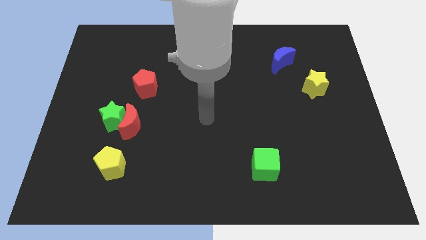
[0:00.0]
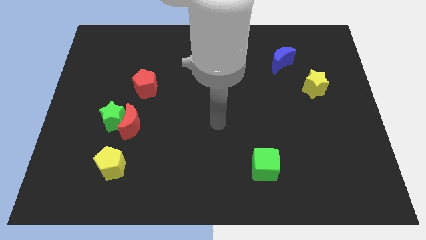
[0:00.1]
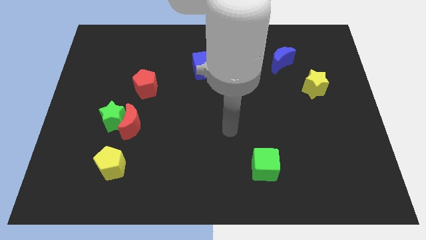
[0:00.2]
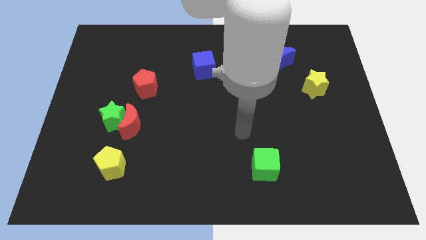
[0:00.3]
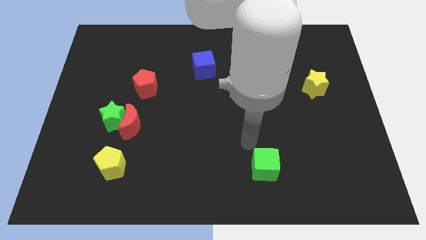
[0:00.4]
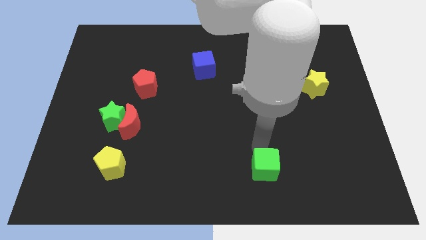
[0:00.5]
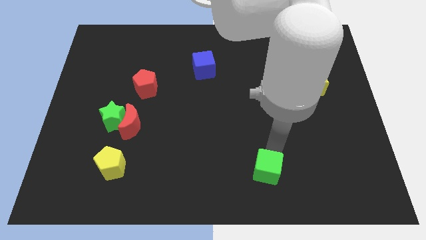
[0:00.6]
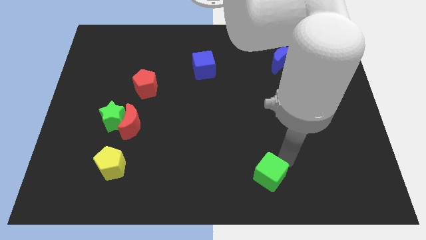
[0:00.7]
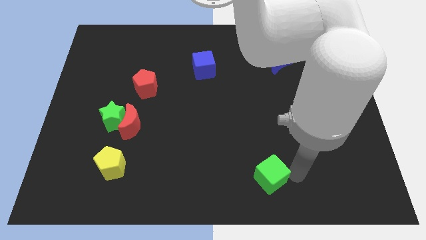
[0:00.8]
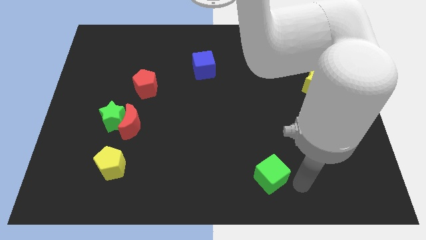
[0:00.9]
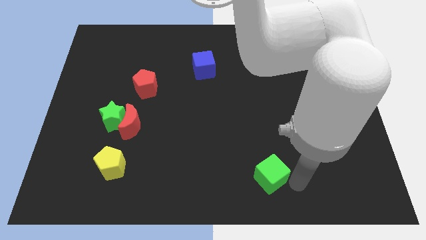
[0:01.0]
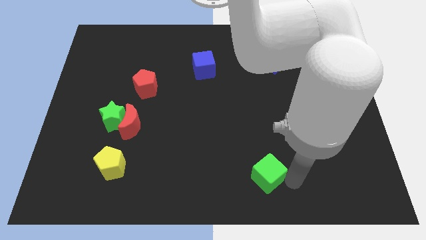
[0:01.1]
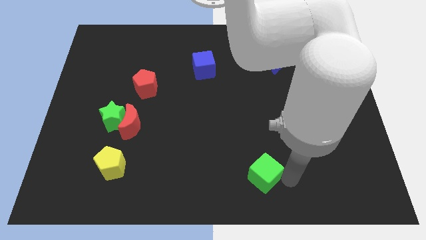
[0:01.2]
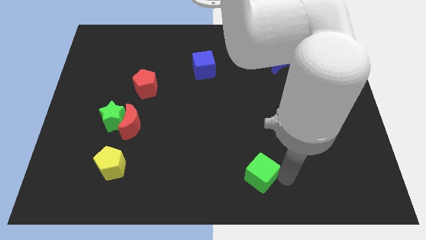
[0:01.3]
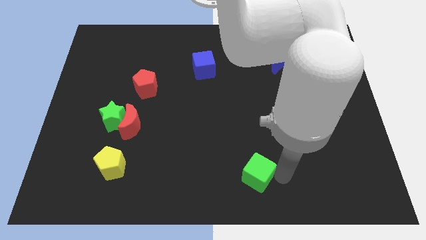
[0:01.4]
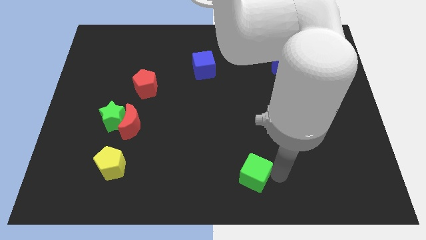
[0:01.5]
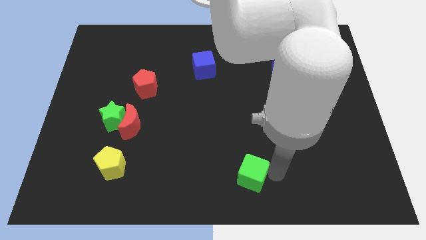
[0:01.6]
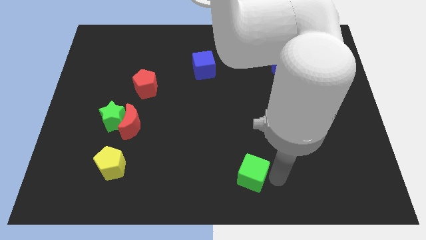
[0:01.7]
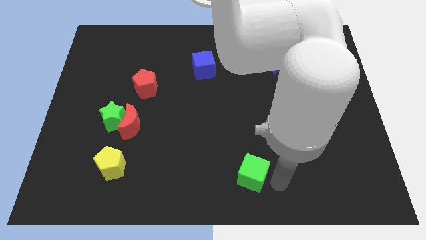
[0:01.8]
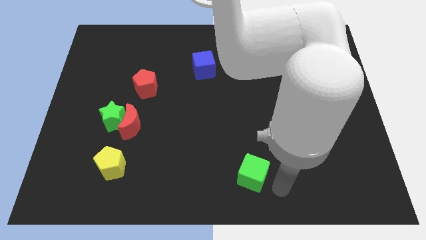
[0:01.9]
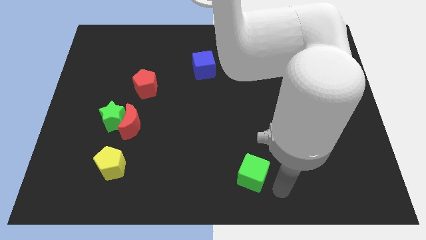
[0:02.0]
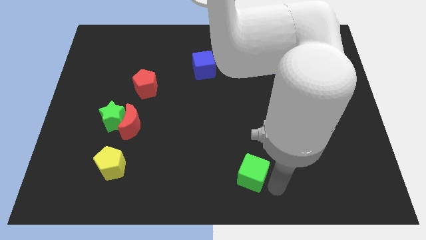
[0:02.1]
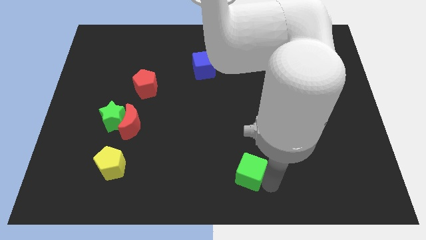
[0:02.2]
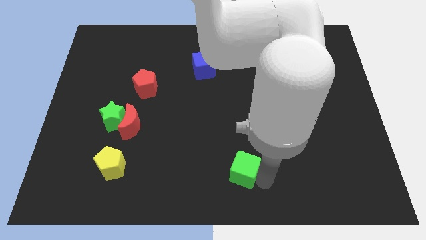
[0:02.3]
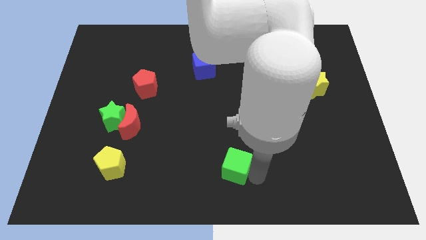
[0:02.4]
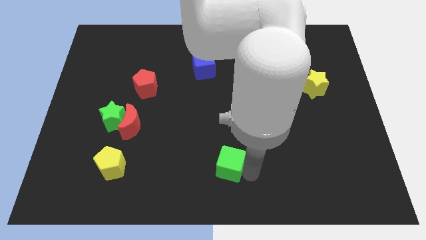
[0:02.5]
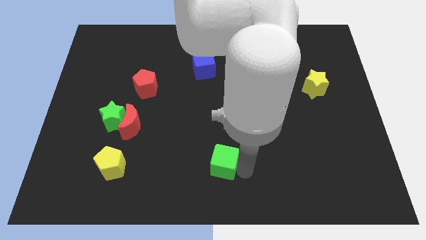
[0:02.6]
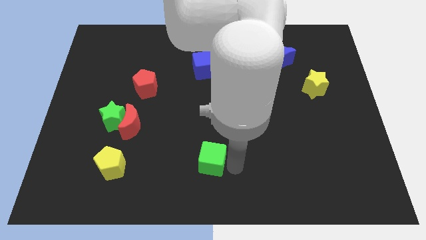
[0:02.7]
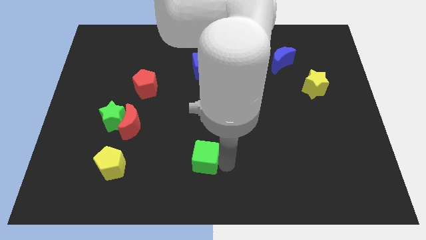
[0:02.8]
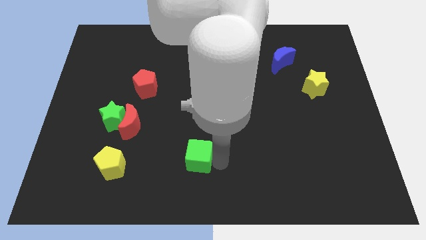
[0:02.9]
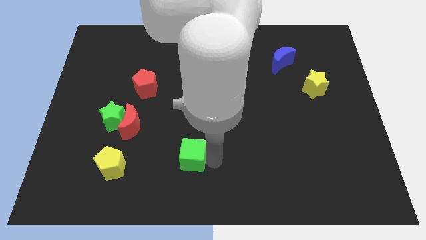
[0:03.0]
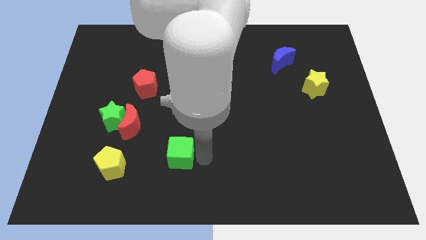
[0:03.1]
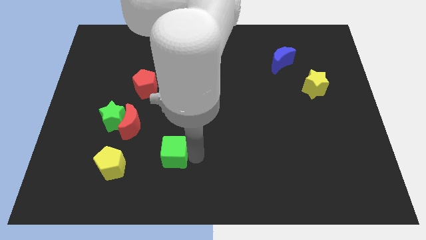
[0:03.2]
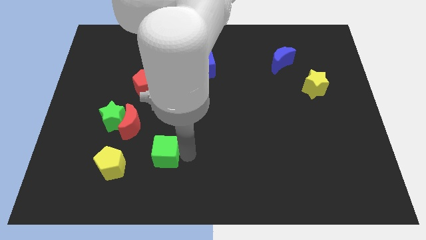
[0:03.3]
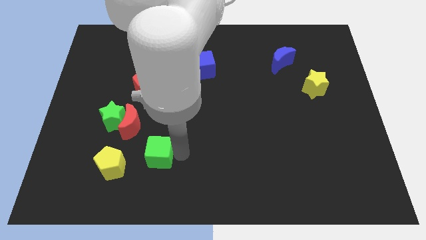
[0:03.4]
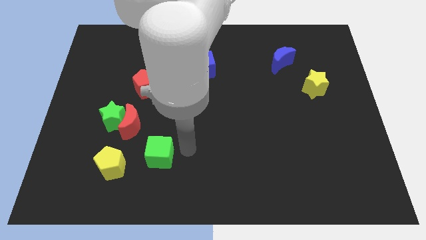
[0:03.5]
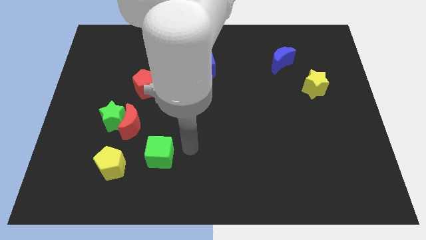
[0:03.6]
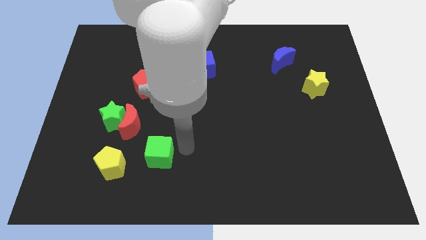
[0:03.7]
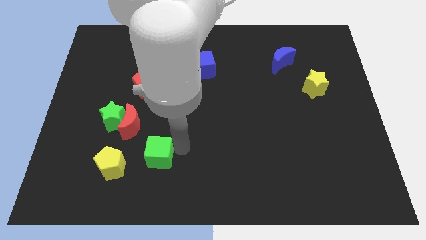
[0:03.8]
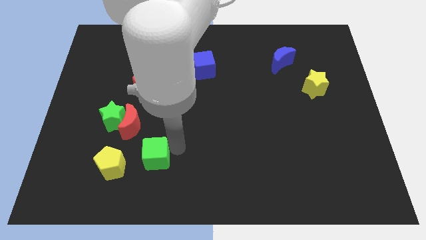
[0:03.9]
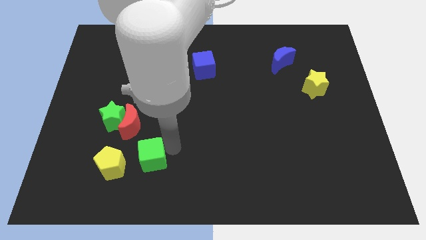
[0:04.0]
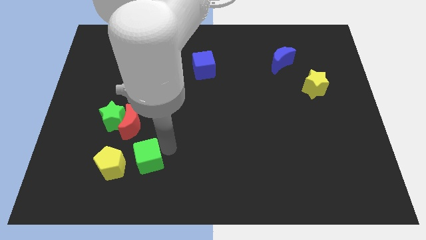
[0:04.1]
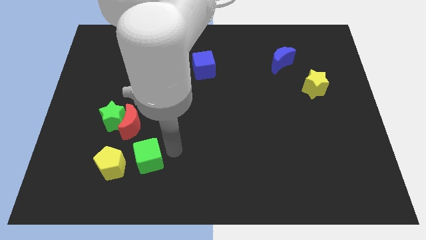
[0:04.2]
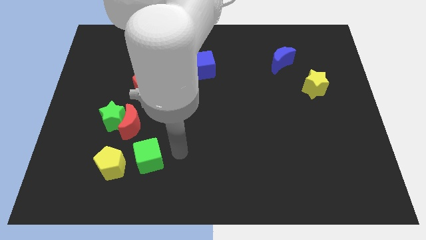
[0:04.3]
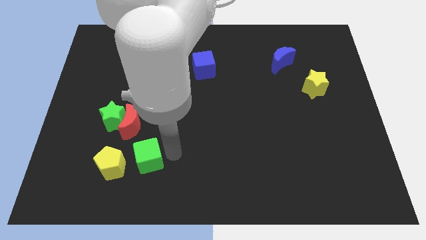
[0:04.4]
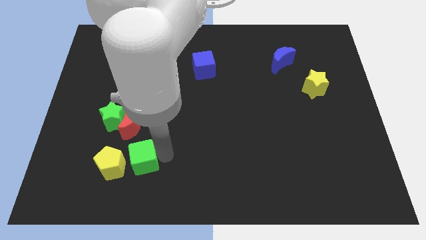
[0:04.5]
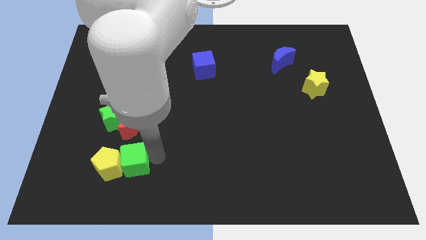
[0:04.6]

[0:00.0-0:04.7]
move the green cube towards the yellow pentagon

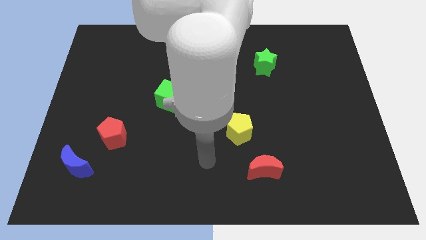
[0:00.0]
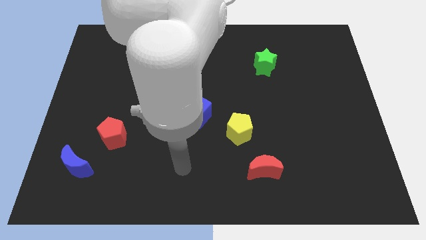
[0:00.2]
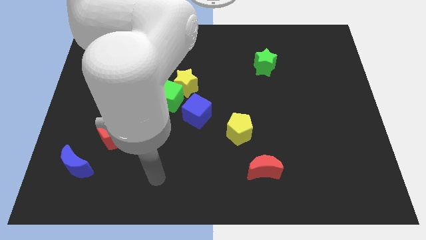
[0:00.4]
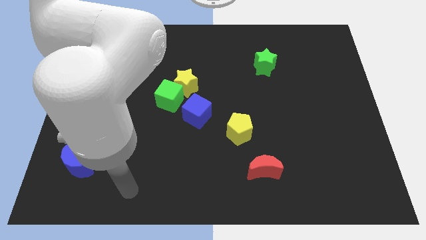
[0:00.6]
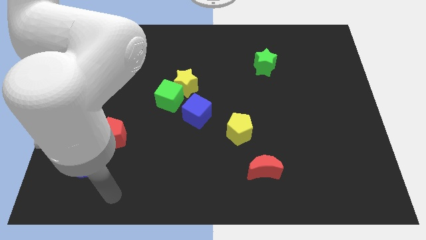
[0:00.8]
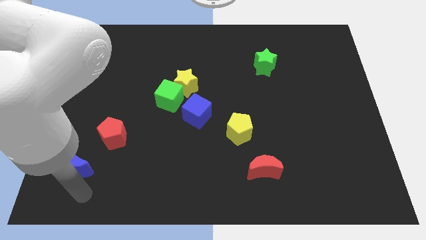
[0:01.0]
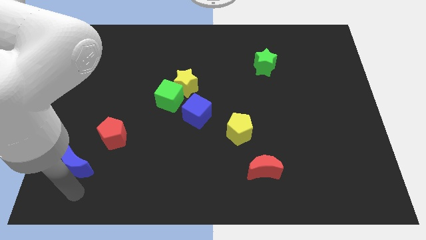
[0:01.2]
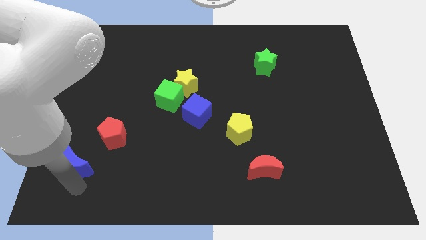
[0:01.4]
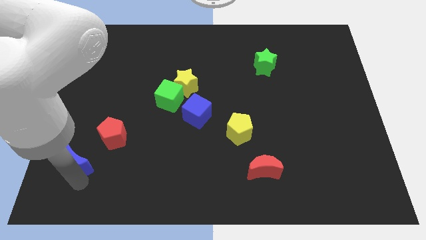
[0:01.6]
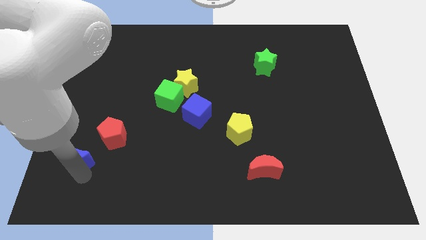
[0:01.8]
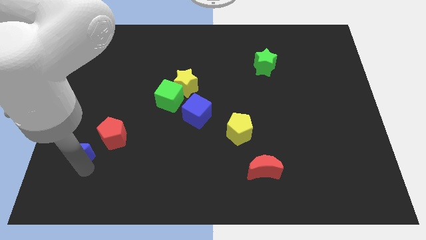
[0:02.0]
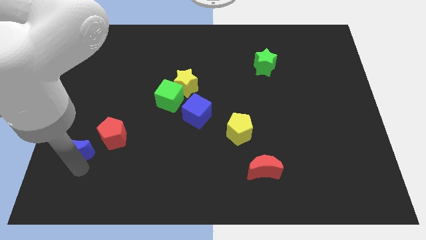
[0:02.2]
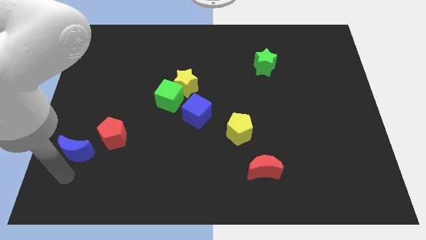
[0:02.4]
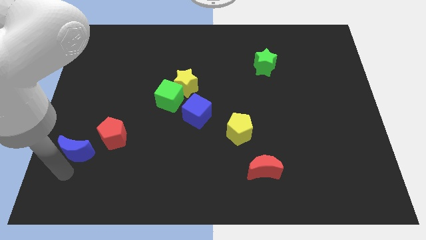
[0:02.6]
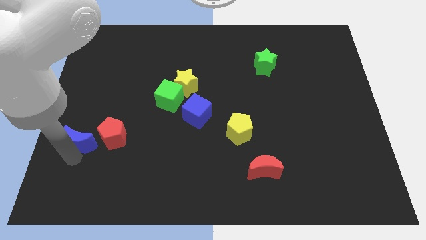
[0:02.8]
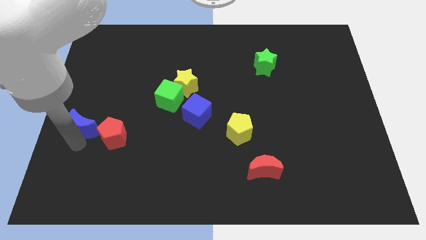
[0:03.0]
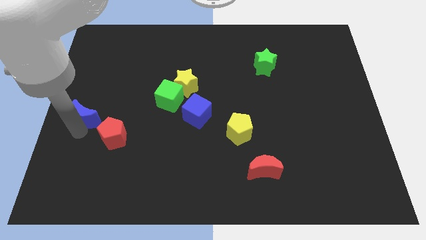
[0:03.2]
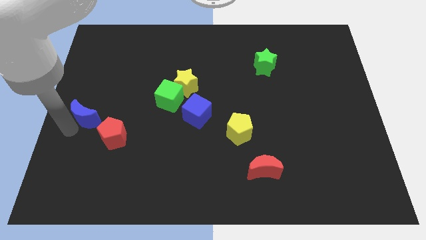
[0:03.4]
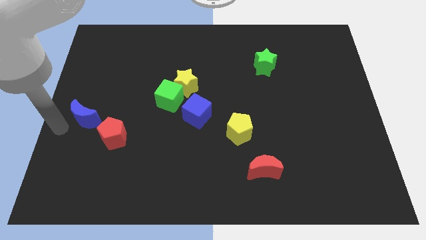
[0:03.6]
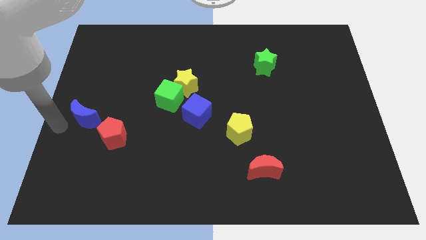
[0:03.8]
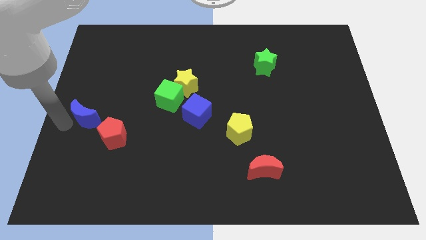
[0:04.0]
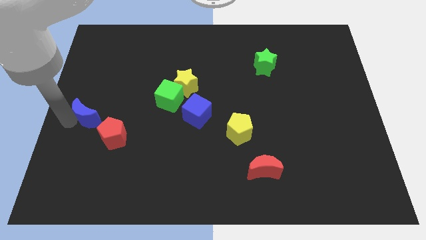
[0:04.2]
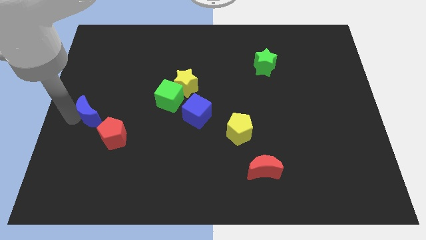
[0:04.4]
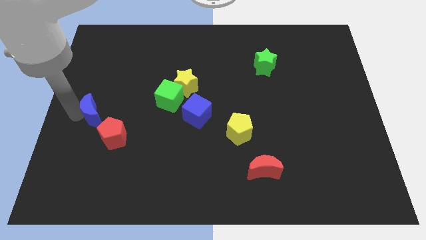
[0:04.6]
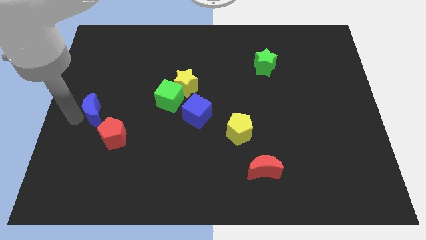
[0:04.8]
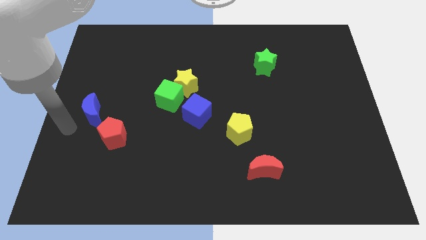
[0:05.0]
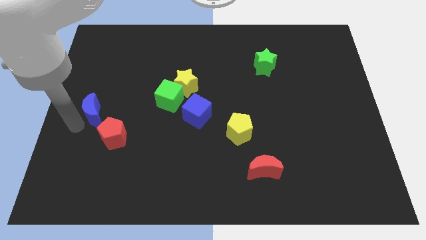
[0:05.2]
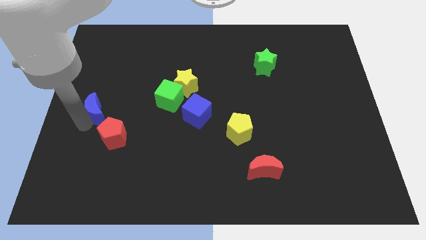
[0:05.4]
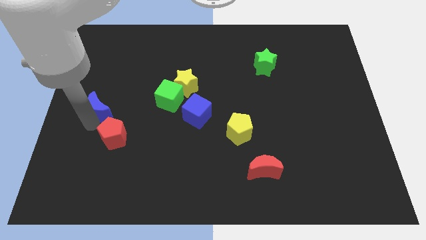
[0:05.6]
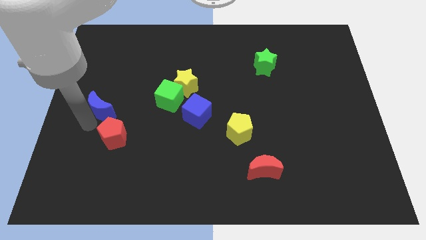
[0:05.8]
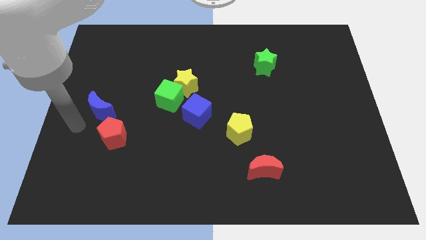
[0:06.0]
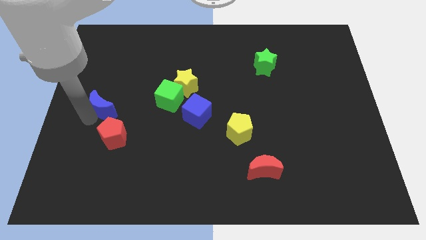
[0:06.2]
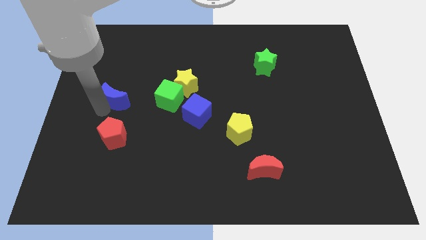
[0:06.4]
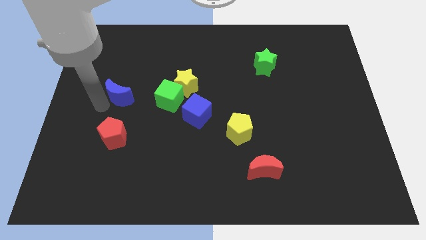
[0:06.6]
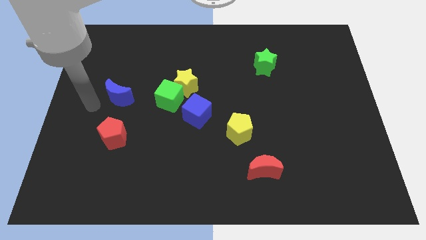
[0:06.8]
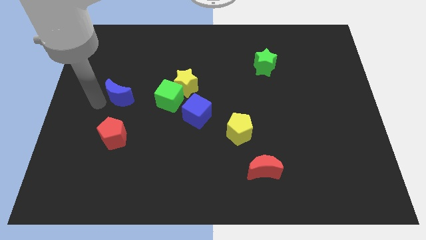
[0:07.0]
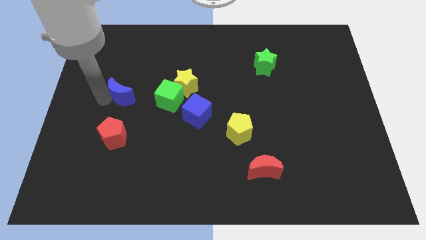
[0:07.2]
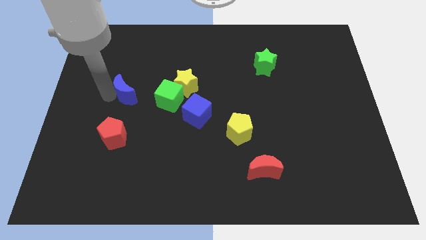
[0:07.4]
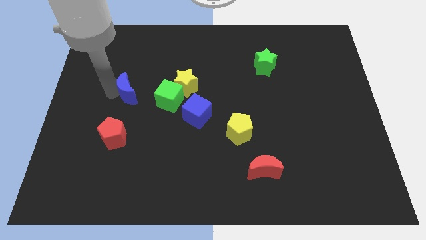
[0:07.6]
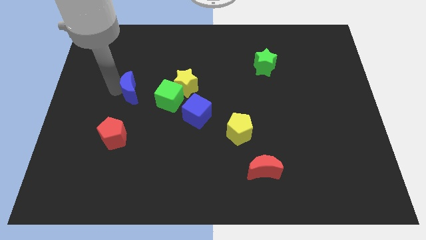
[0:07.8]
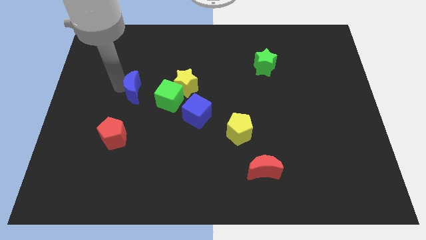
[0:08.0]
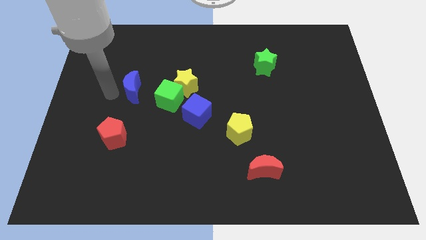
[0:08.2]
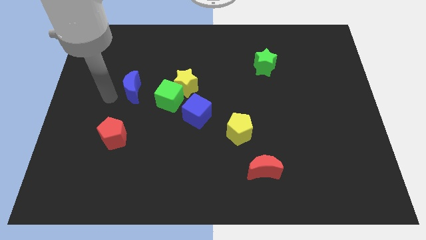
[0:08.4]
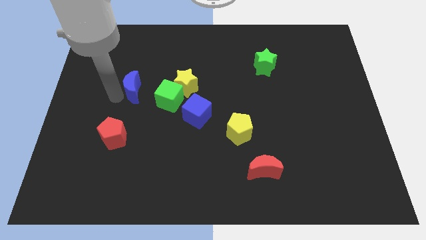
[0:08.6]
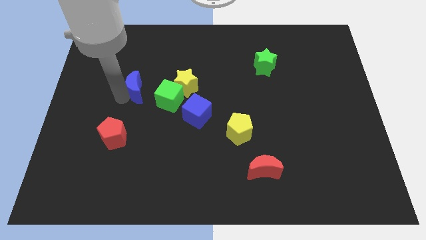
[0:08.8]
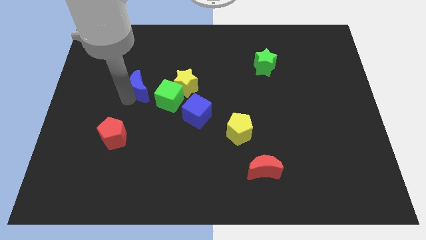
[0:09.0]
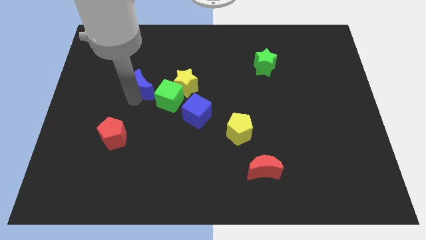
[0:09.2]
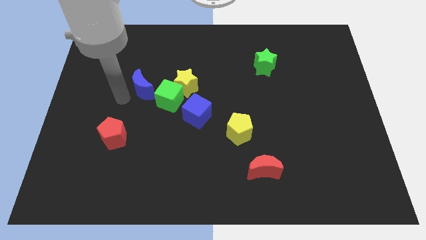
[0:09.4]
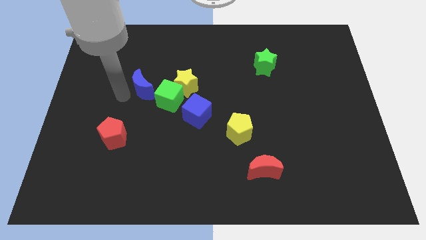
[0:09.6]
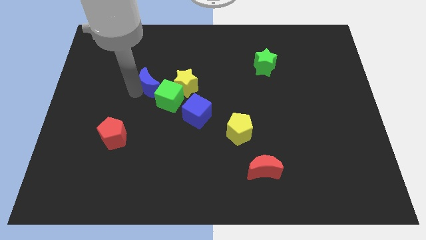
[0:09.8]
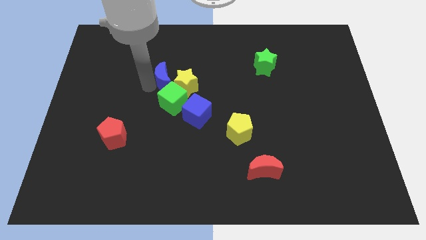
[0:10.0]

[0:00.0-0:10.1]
slide the blue moon towards the yellow star
